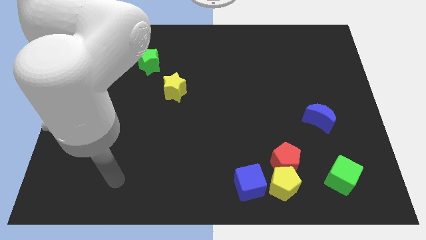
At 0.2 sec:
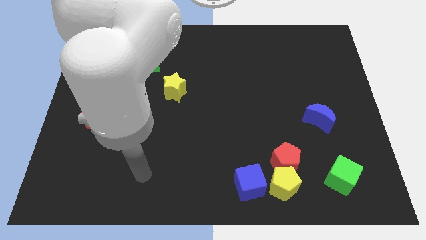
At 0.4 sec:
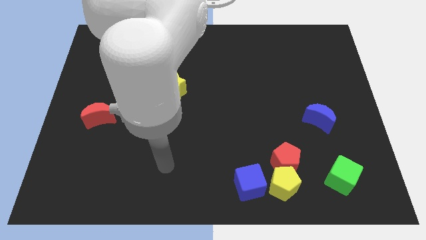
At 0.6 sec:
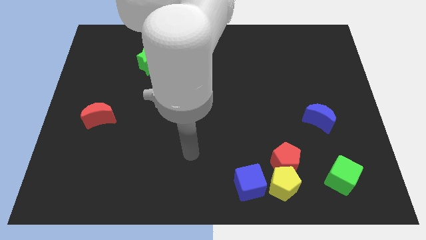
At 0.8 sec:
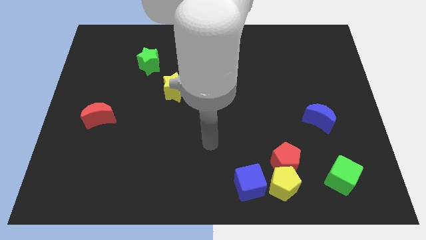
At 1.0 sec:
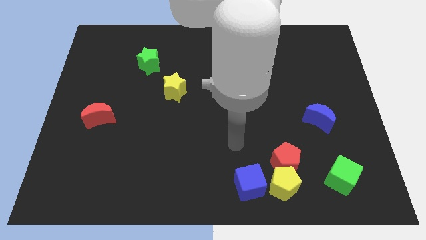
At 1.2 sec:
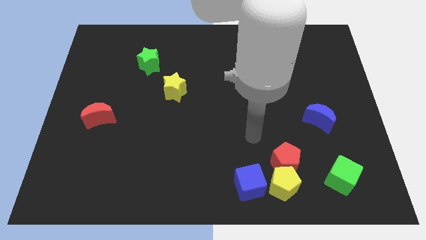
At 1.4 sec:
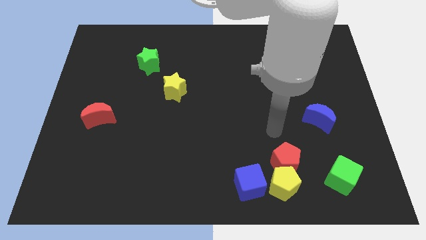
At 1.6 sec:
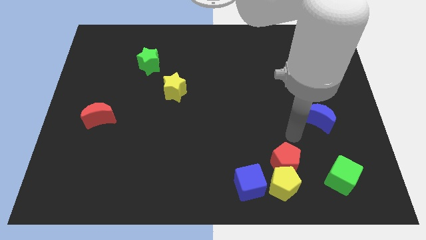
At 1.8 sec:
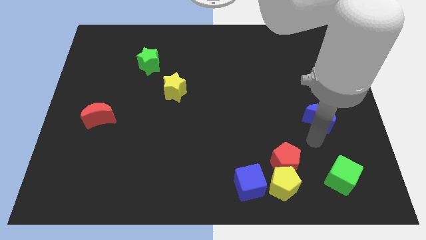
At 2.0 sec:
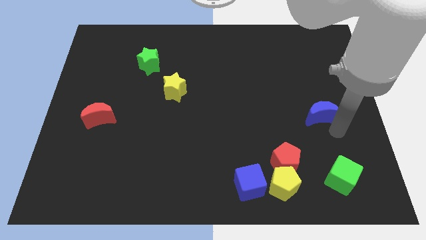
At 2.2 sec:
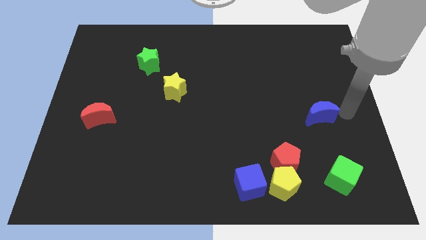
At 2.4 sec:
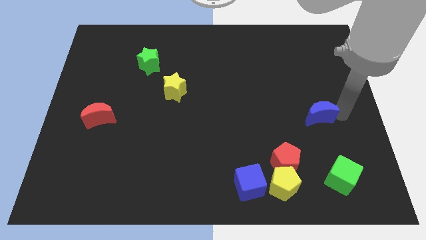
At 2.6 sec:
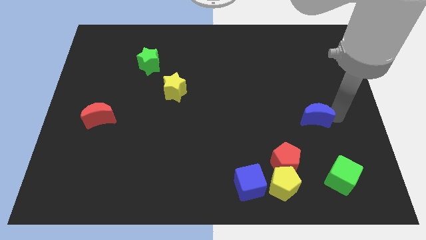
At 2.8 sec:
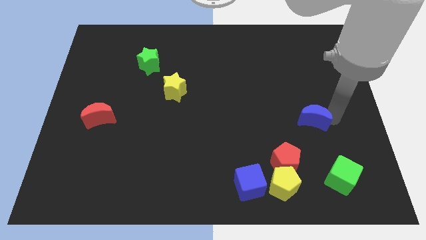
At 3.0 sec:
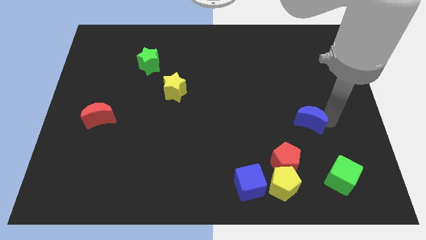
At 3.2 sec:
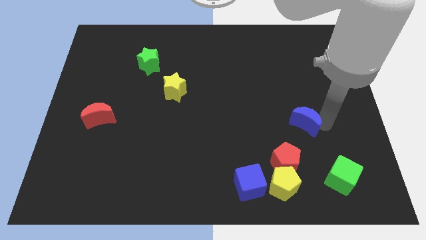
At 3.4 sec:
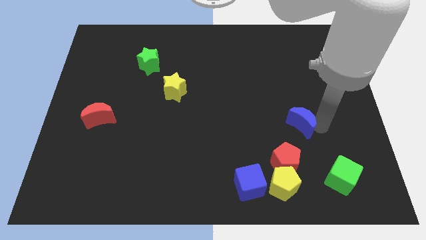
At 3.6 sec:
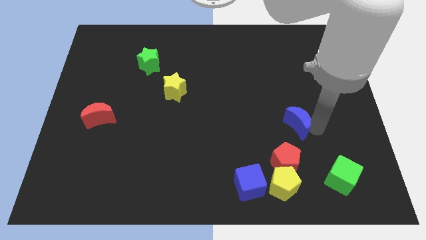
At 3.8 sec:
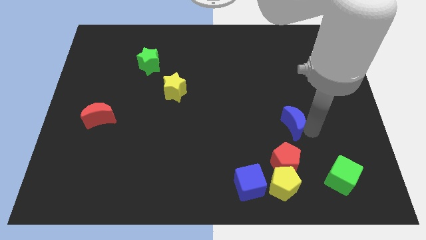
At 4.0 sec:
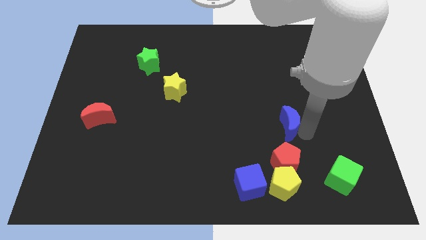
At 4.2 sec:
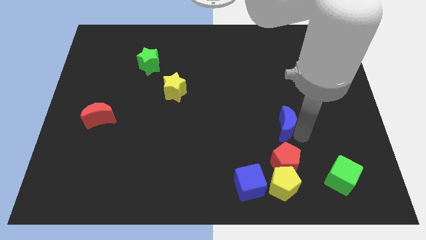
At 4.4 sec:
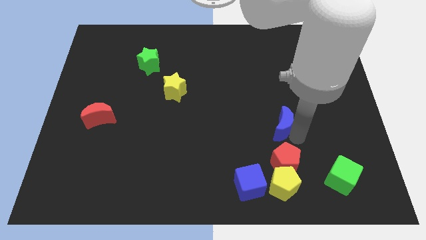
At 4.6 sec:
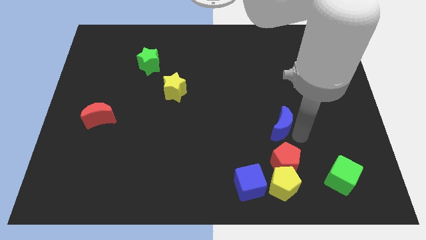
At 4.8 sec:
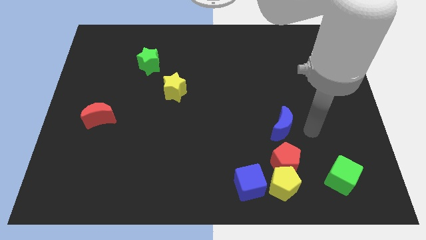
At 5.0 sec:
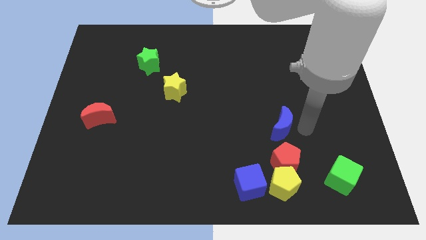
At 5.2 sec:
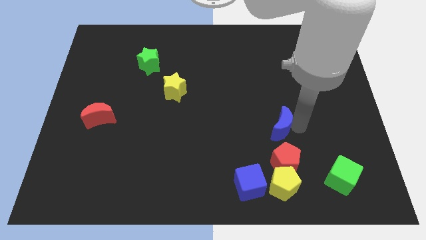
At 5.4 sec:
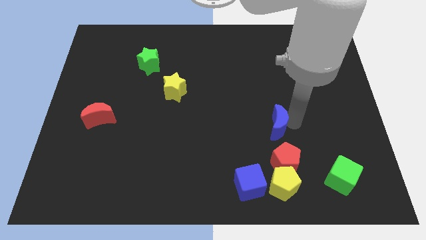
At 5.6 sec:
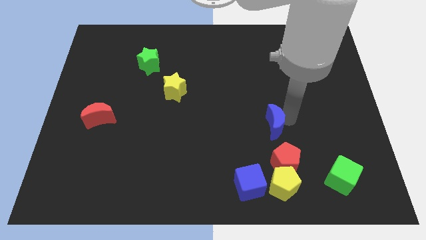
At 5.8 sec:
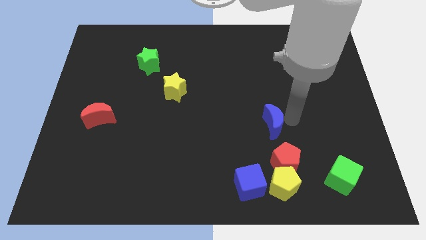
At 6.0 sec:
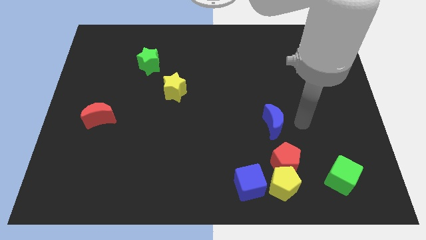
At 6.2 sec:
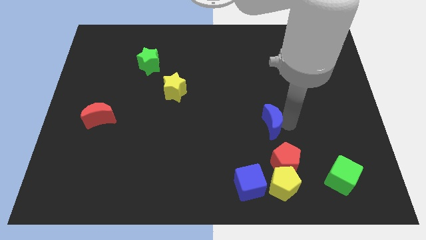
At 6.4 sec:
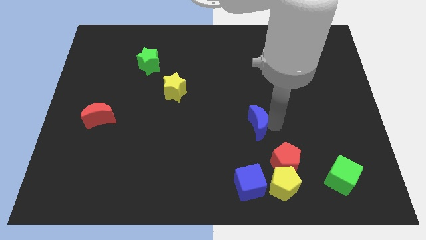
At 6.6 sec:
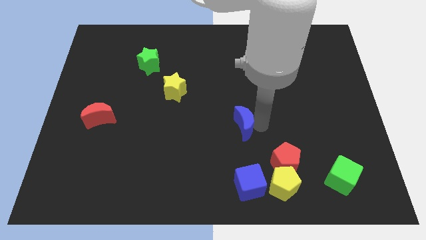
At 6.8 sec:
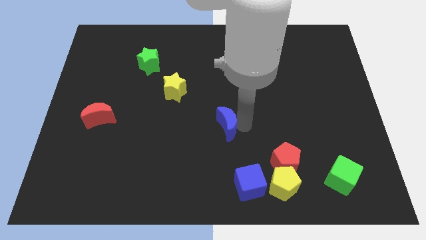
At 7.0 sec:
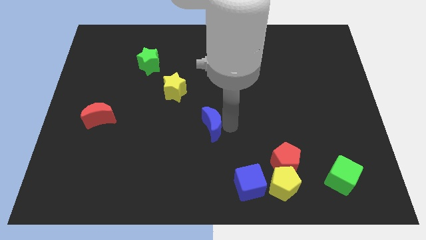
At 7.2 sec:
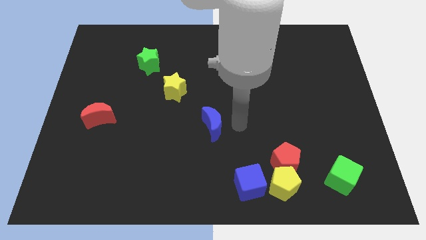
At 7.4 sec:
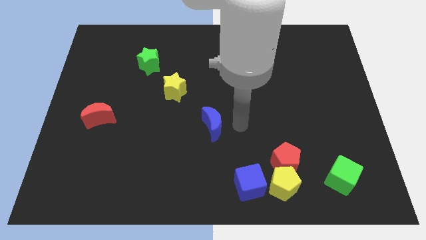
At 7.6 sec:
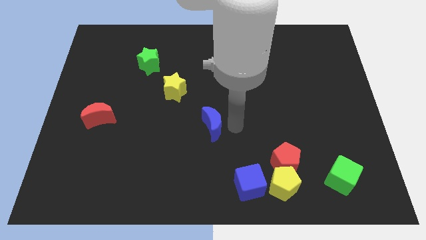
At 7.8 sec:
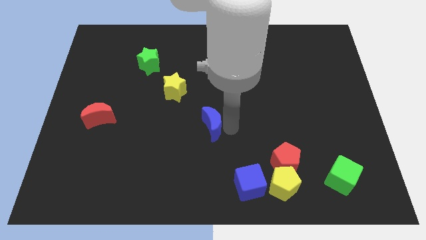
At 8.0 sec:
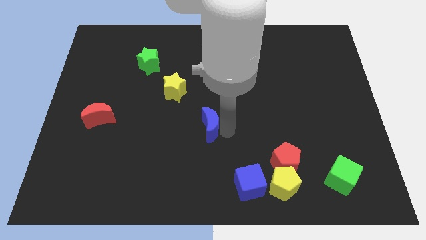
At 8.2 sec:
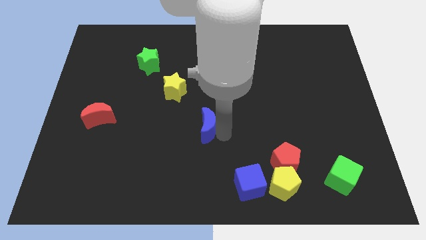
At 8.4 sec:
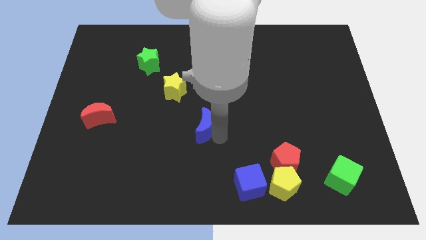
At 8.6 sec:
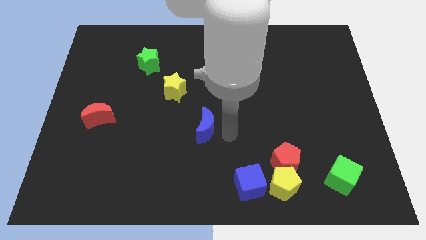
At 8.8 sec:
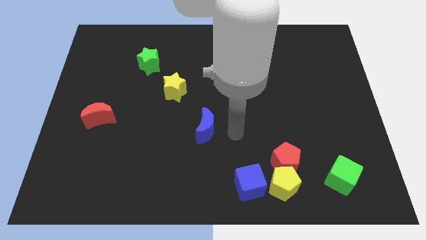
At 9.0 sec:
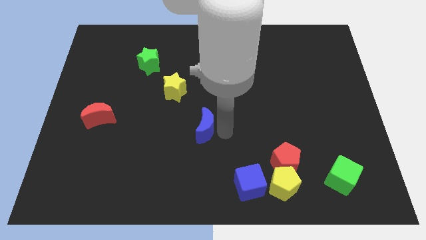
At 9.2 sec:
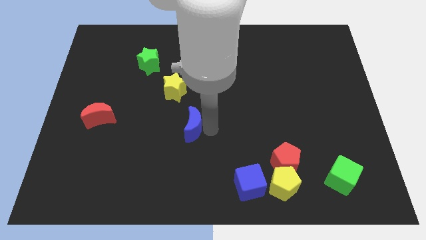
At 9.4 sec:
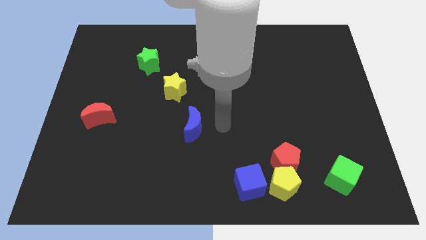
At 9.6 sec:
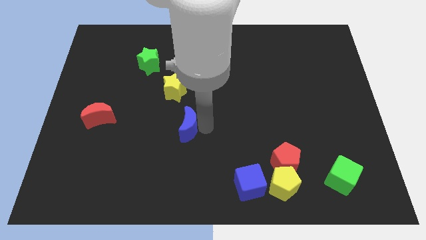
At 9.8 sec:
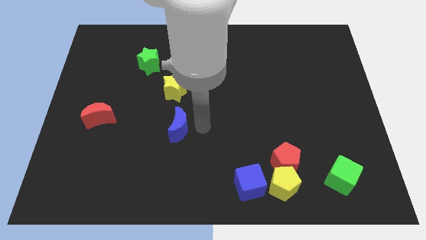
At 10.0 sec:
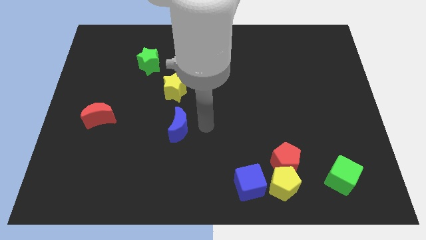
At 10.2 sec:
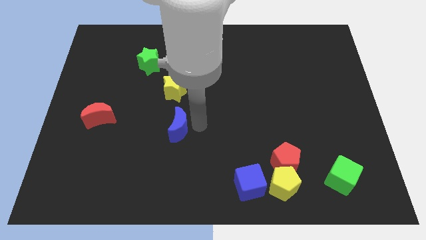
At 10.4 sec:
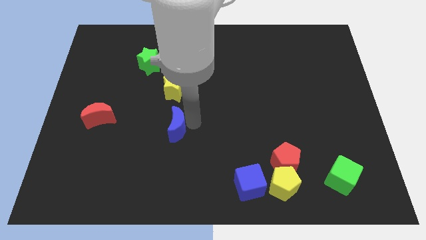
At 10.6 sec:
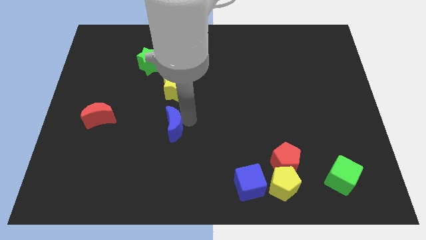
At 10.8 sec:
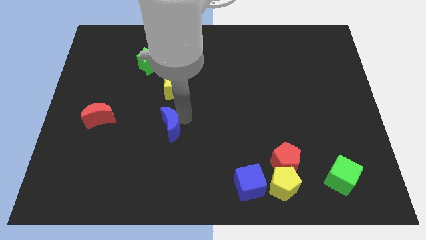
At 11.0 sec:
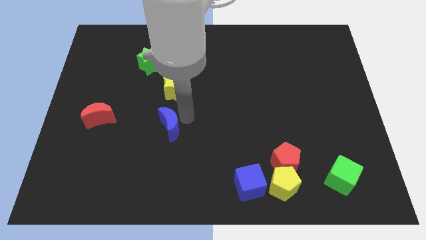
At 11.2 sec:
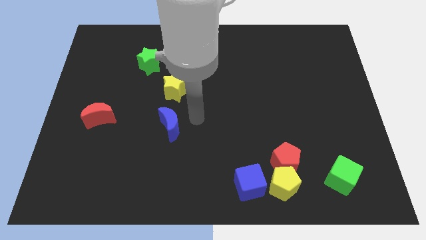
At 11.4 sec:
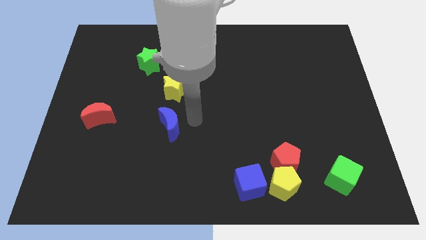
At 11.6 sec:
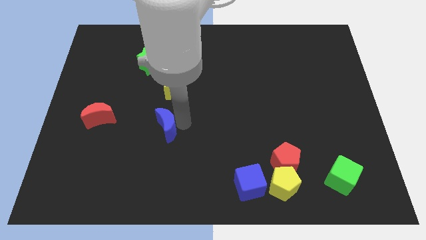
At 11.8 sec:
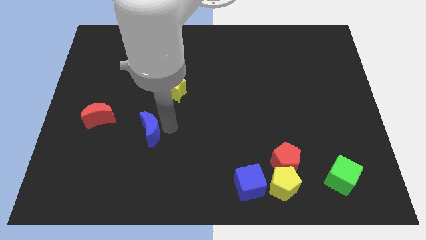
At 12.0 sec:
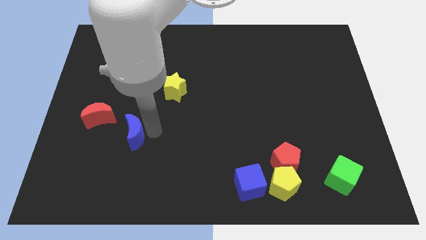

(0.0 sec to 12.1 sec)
put the blue moon diagonally down and to the right of the red moon
